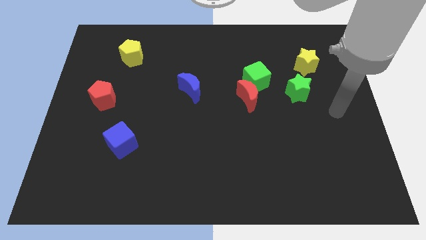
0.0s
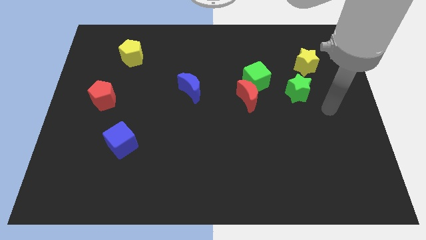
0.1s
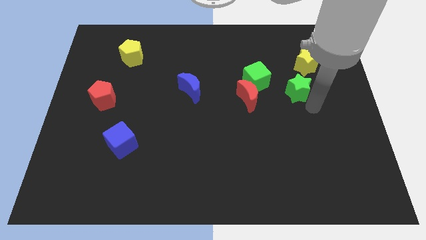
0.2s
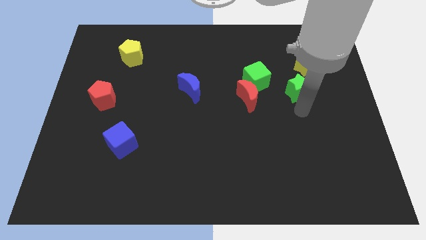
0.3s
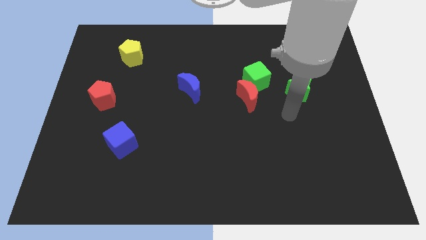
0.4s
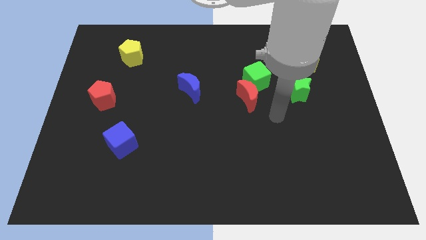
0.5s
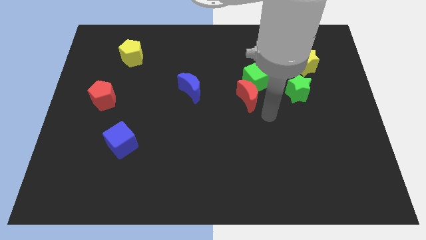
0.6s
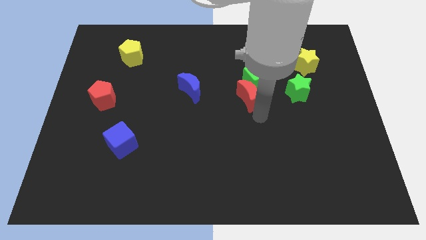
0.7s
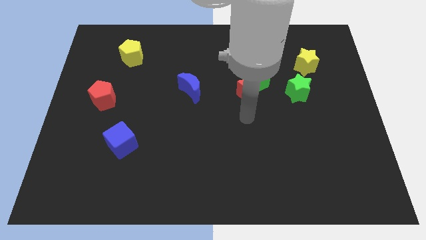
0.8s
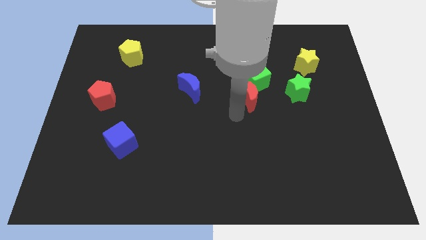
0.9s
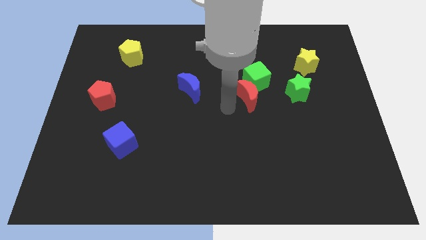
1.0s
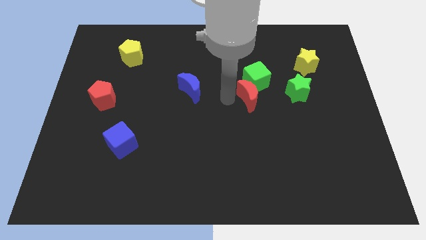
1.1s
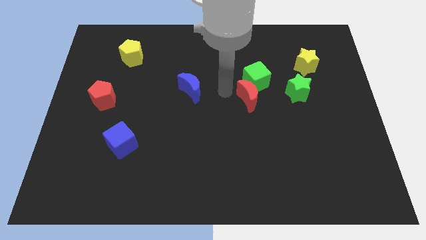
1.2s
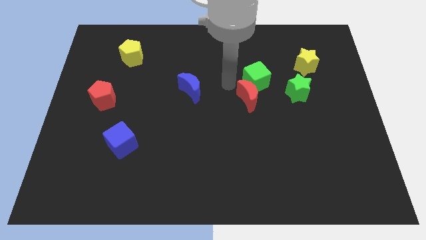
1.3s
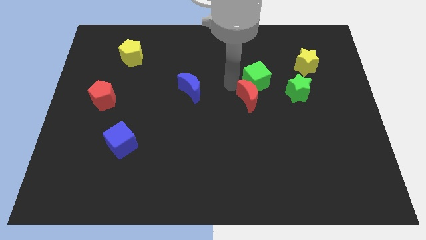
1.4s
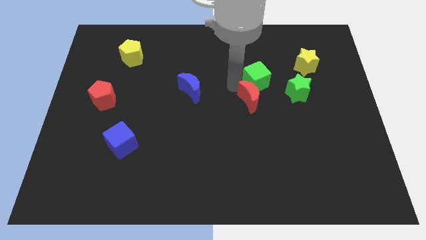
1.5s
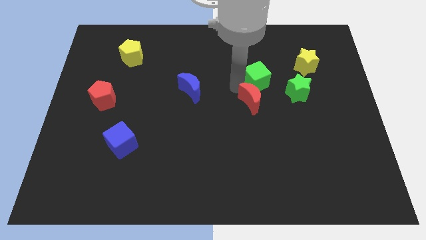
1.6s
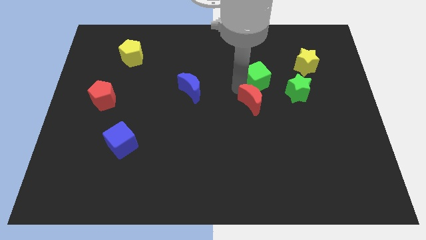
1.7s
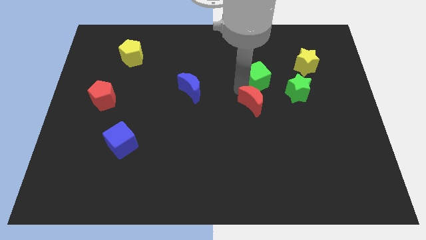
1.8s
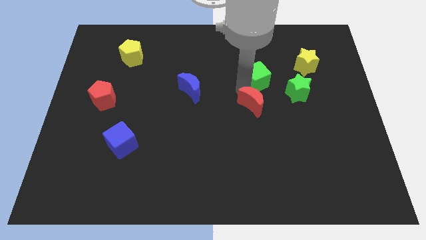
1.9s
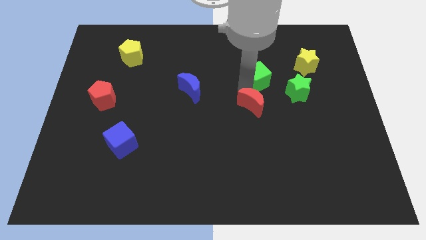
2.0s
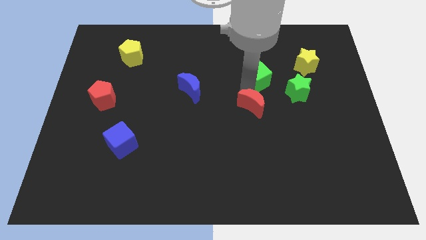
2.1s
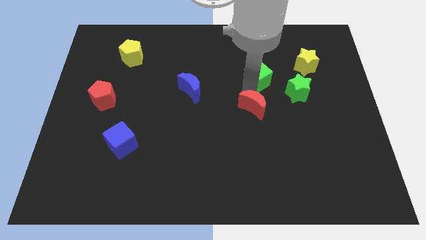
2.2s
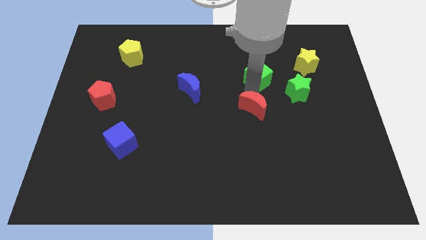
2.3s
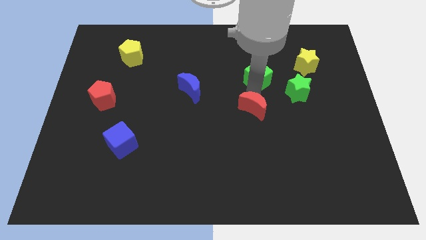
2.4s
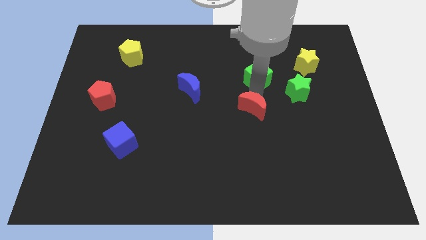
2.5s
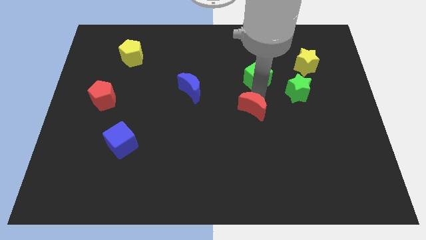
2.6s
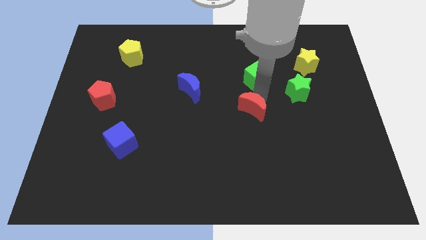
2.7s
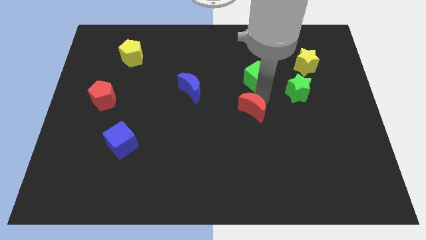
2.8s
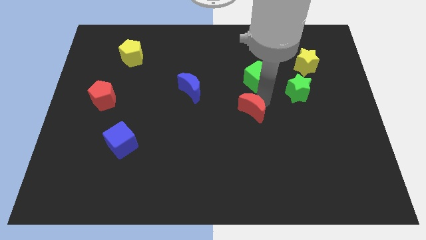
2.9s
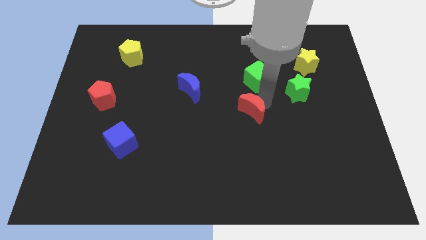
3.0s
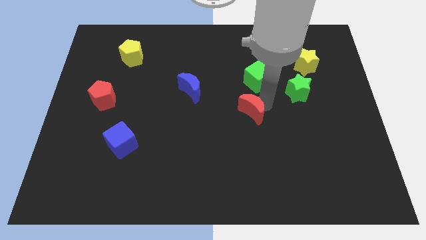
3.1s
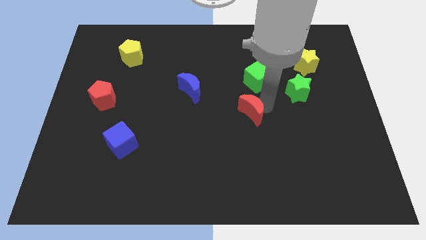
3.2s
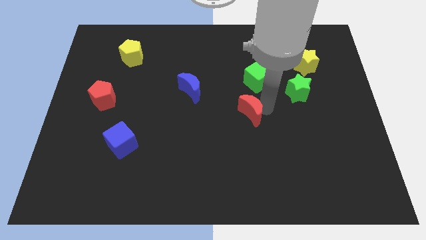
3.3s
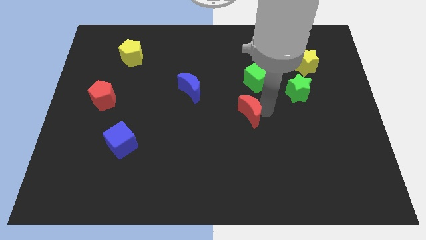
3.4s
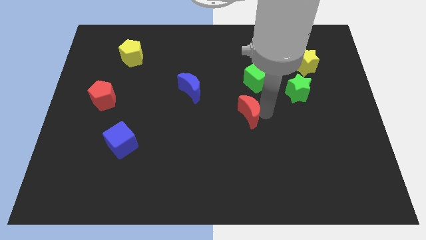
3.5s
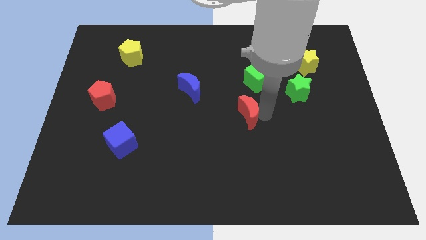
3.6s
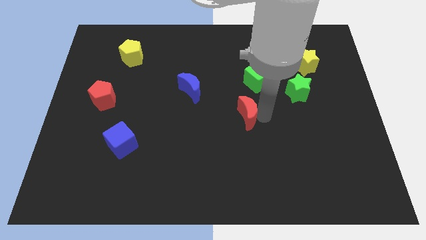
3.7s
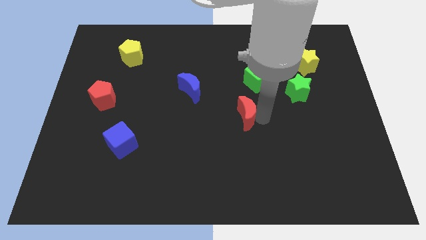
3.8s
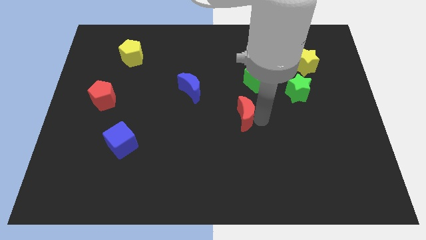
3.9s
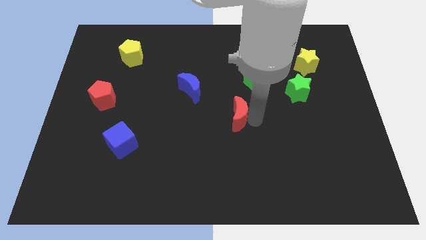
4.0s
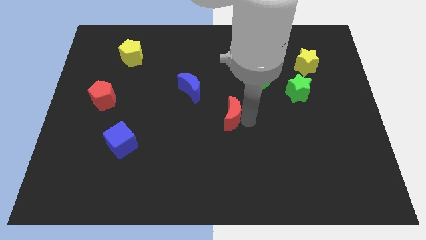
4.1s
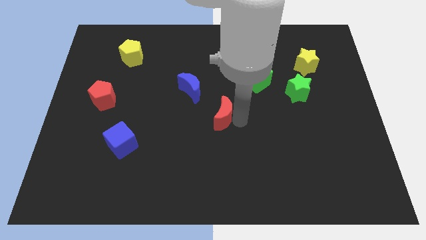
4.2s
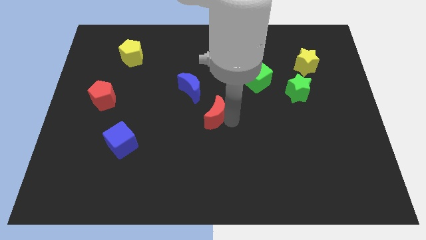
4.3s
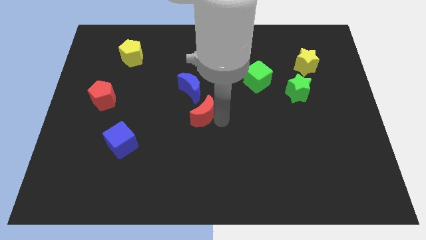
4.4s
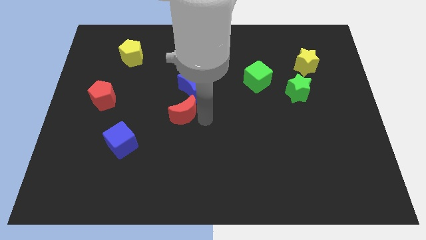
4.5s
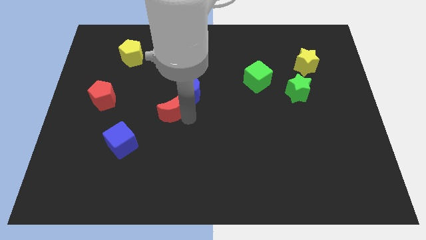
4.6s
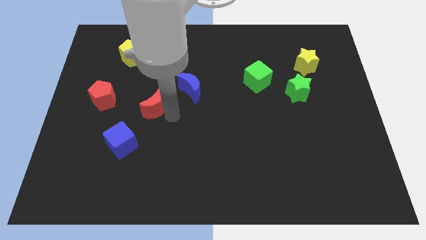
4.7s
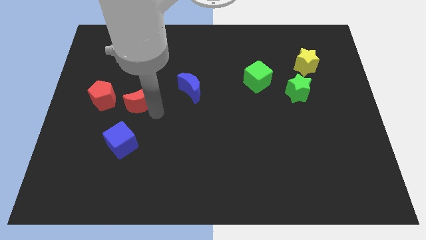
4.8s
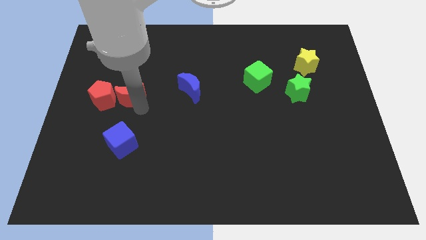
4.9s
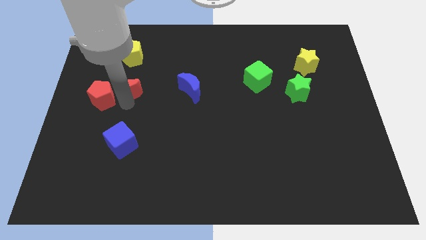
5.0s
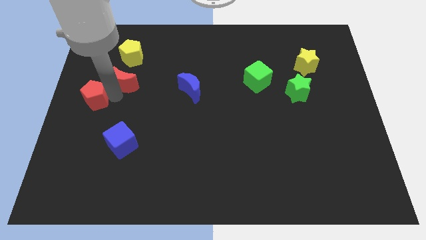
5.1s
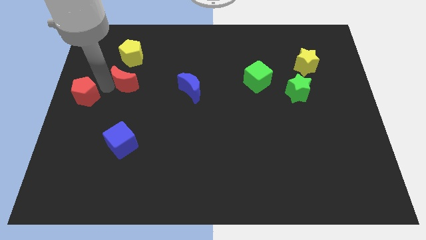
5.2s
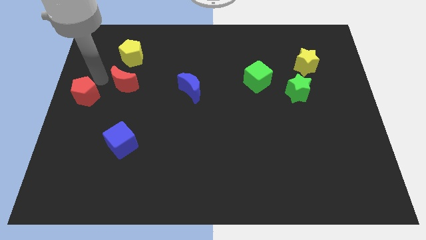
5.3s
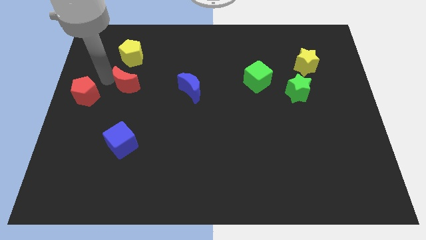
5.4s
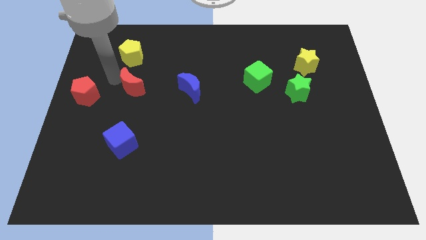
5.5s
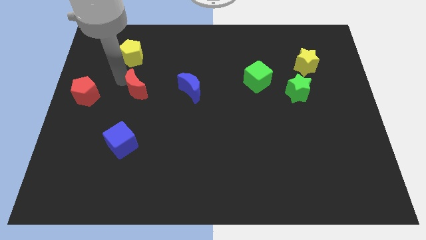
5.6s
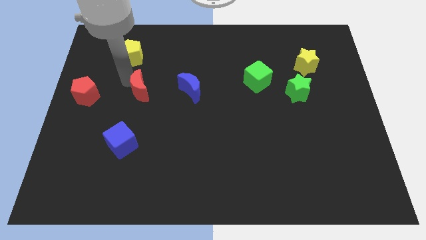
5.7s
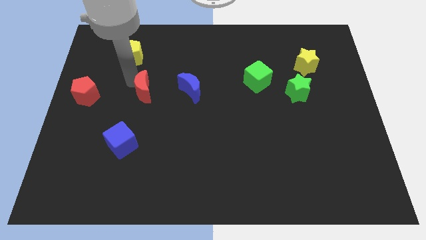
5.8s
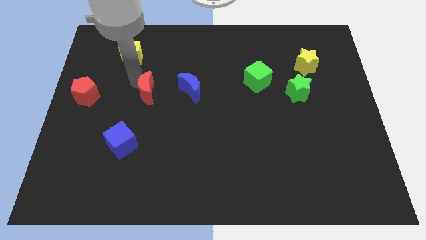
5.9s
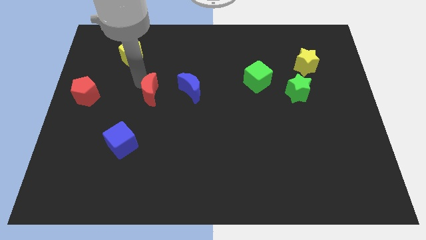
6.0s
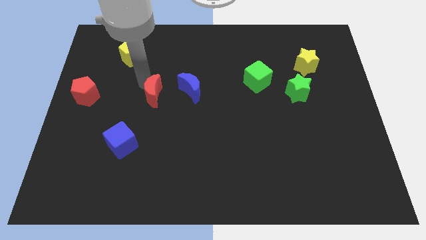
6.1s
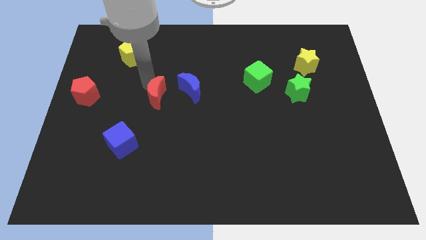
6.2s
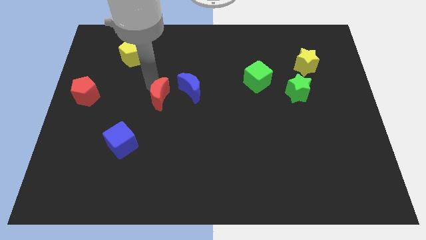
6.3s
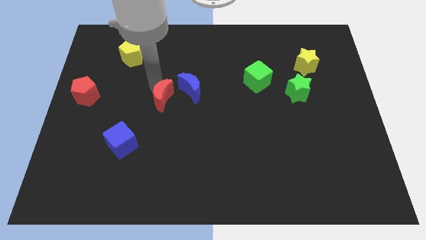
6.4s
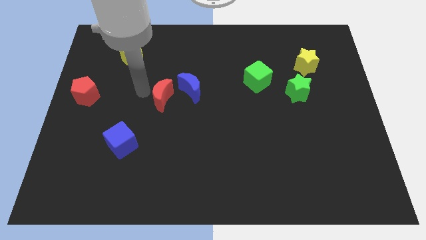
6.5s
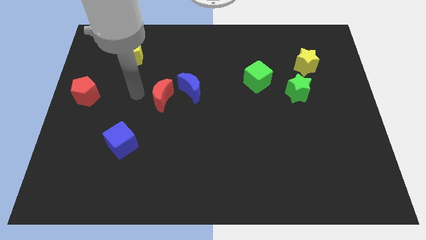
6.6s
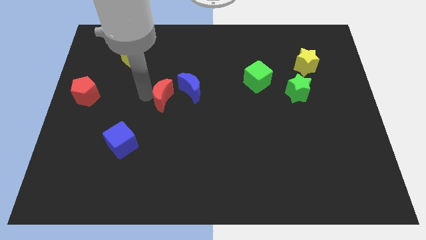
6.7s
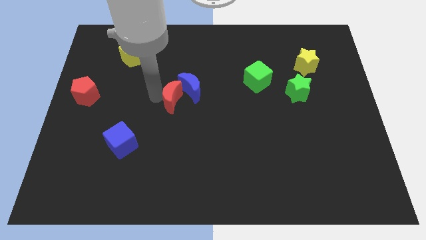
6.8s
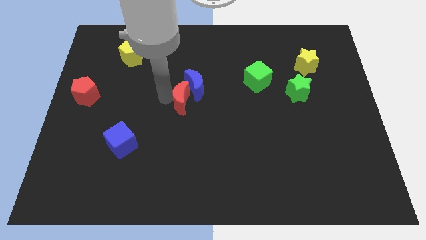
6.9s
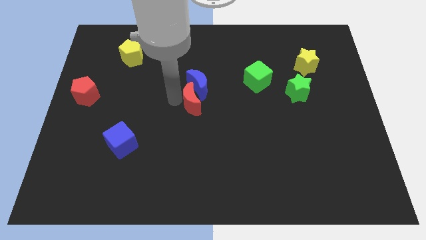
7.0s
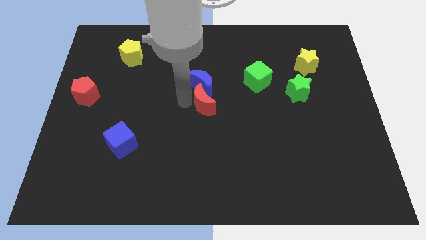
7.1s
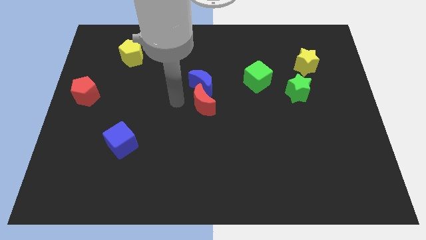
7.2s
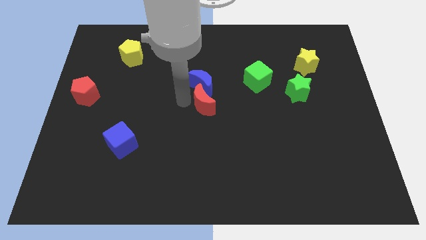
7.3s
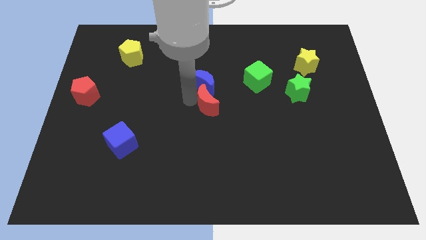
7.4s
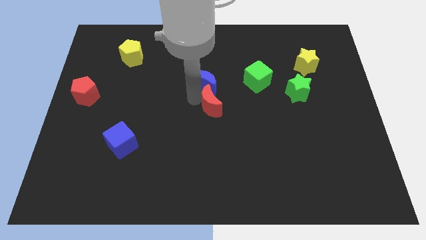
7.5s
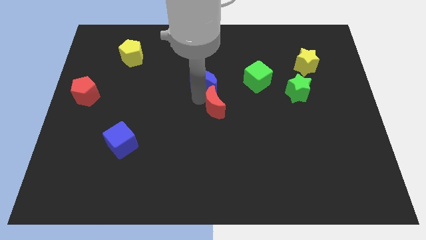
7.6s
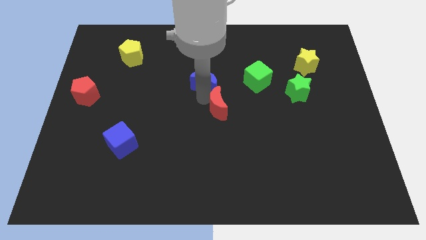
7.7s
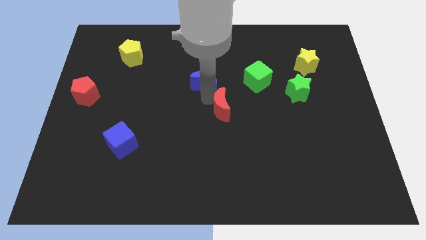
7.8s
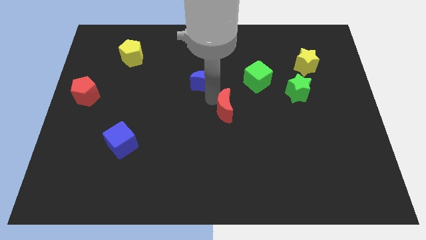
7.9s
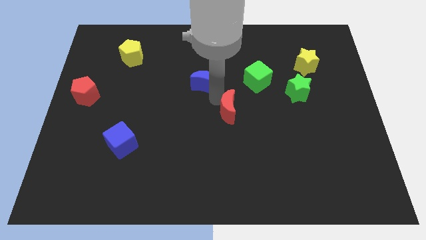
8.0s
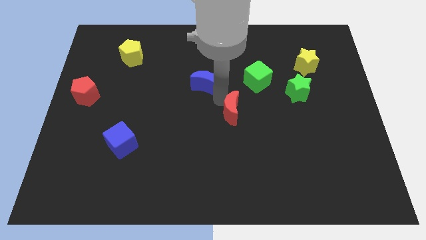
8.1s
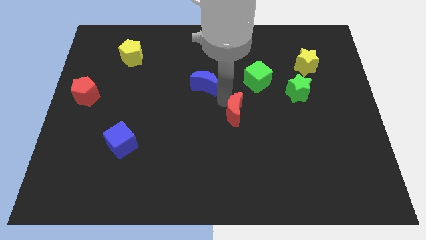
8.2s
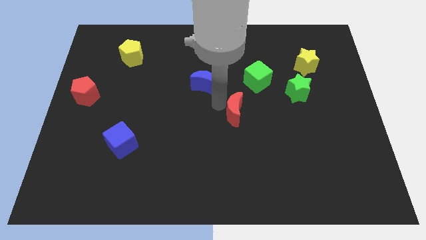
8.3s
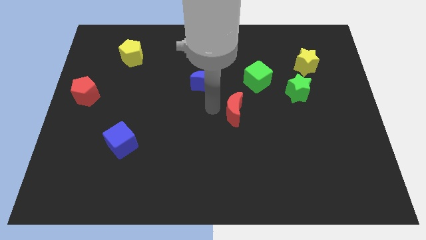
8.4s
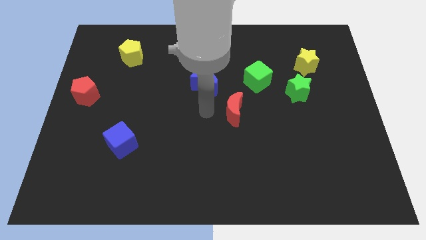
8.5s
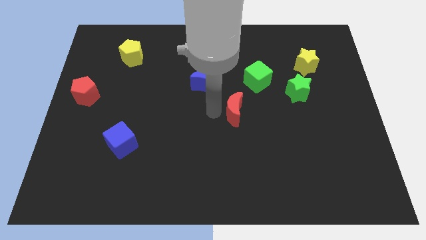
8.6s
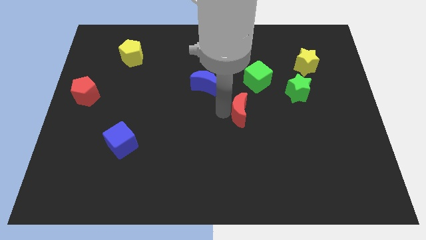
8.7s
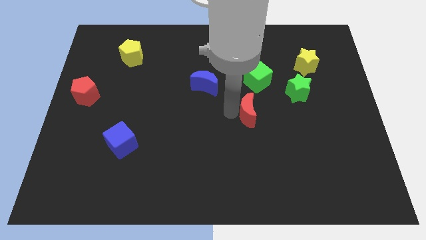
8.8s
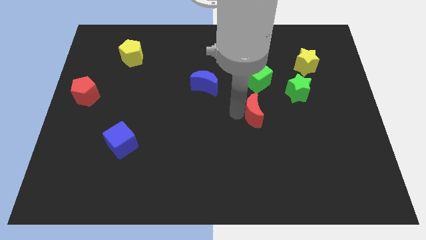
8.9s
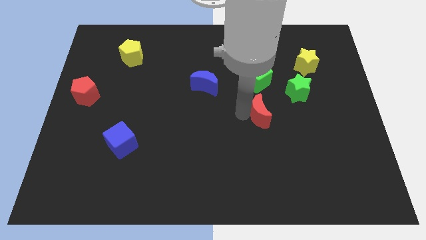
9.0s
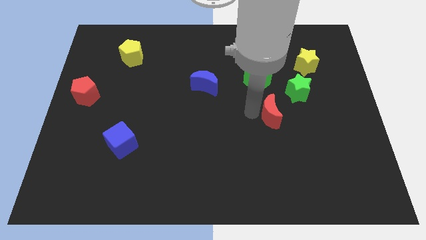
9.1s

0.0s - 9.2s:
push the red moon downwards and then right a little bit
